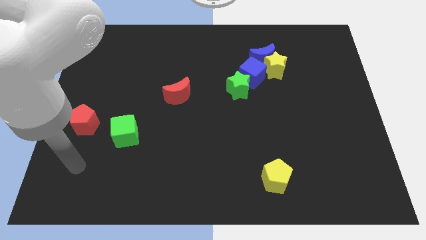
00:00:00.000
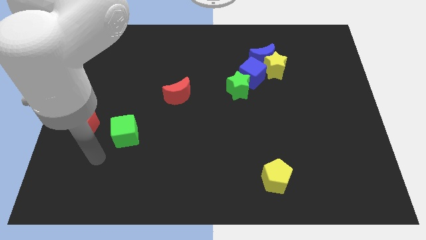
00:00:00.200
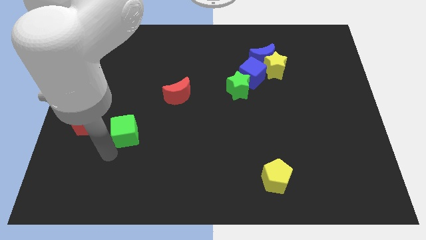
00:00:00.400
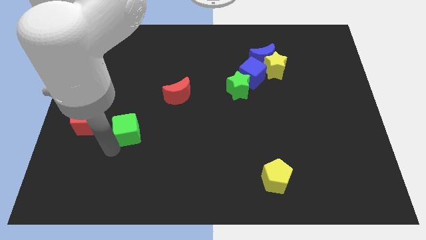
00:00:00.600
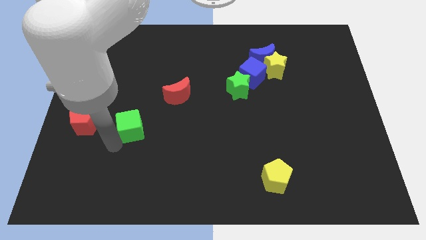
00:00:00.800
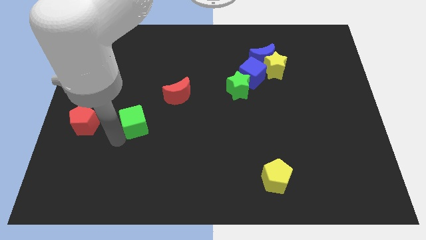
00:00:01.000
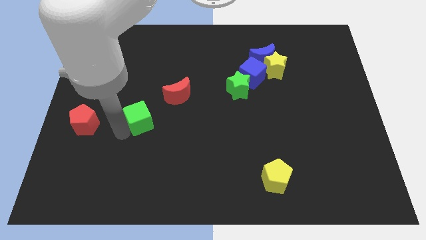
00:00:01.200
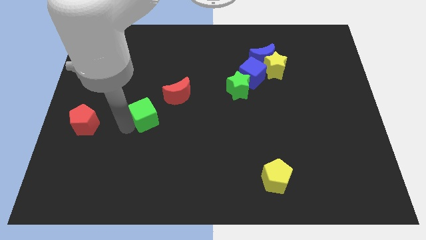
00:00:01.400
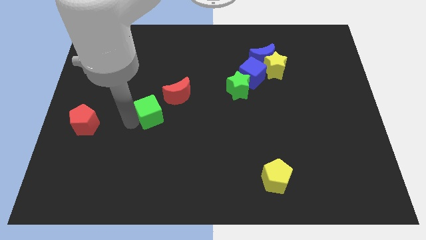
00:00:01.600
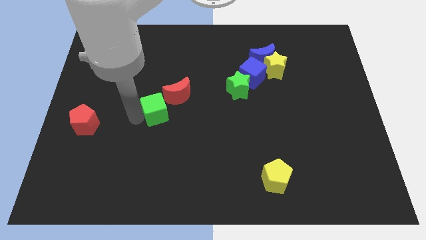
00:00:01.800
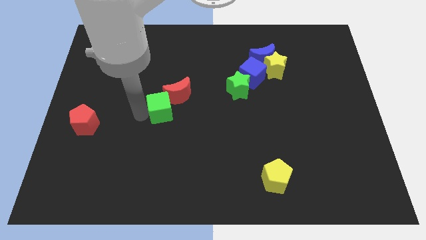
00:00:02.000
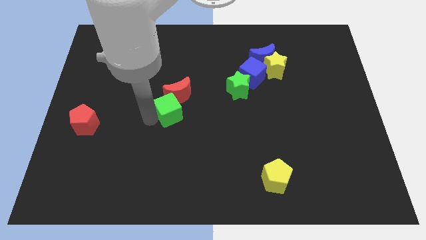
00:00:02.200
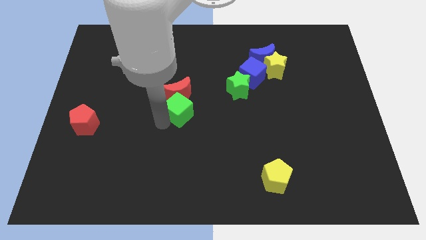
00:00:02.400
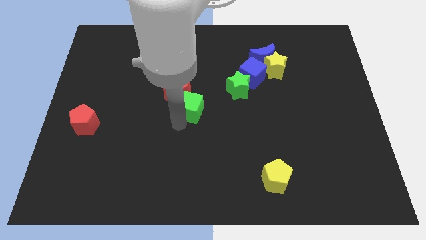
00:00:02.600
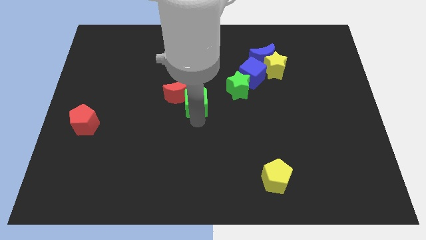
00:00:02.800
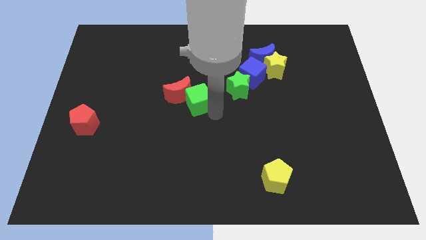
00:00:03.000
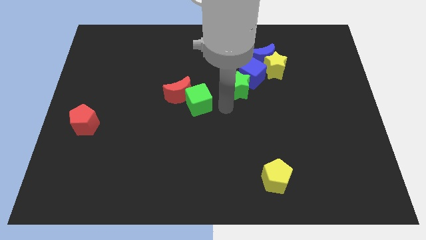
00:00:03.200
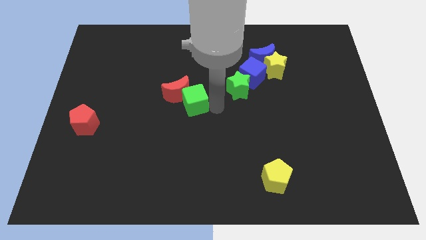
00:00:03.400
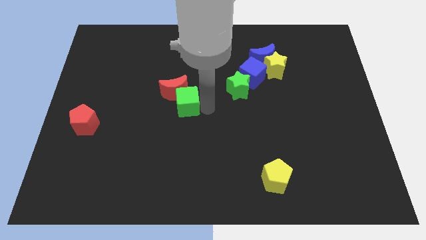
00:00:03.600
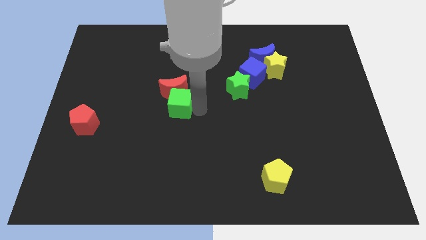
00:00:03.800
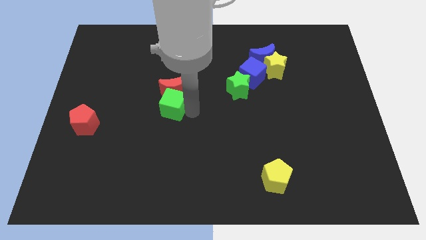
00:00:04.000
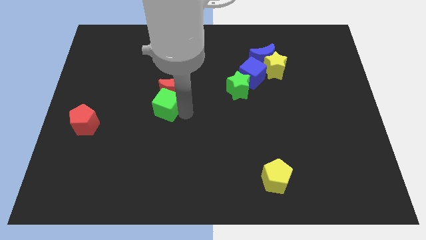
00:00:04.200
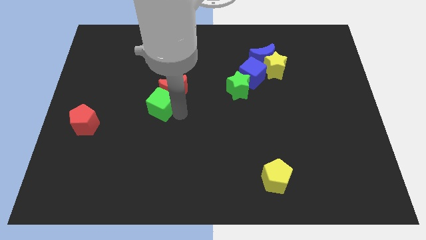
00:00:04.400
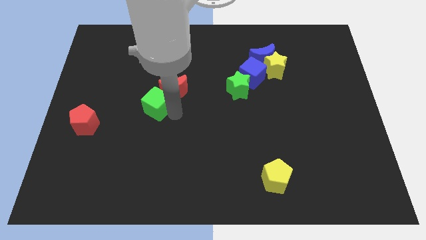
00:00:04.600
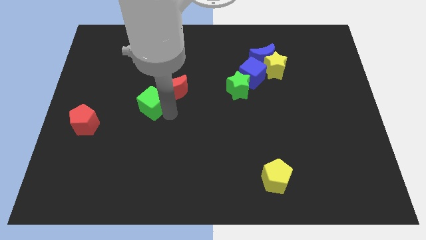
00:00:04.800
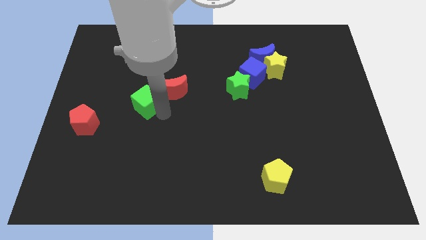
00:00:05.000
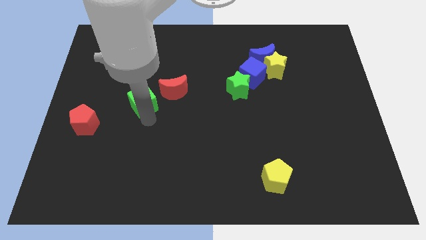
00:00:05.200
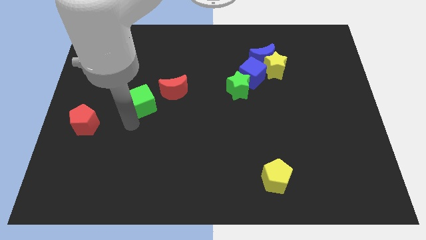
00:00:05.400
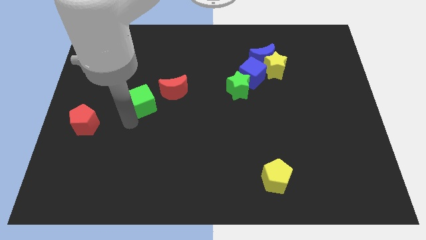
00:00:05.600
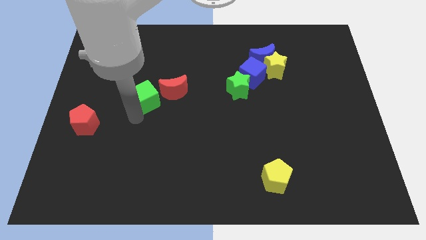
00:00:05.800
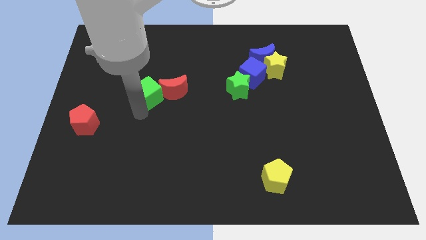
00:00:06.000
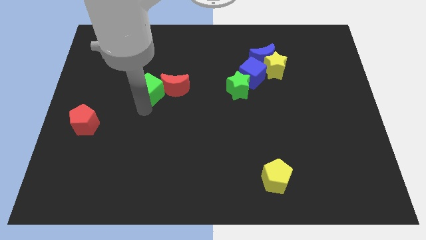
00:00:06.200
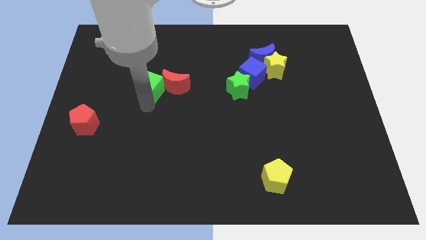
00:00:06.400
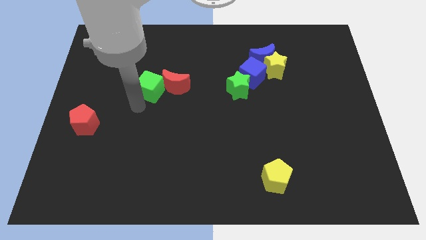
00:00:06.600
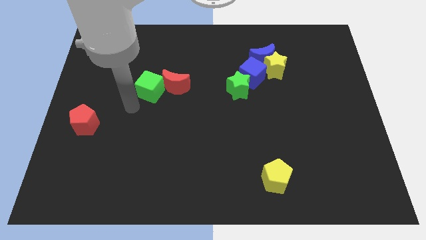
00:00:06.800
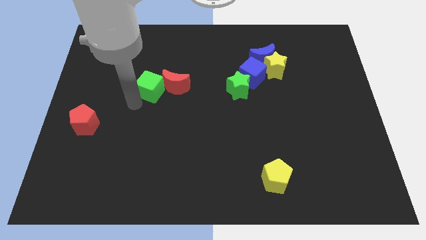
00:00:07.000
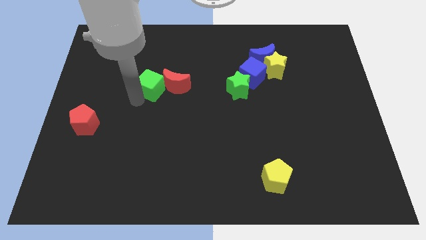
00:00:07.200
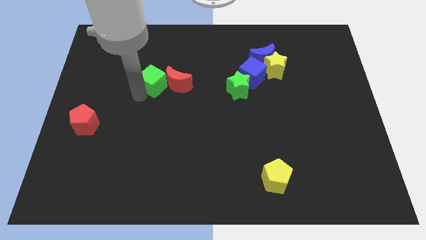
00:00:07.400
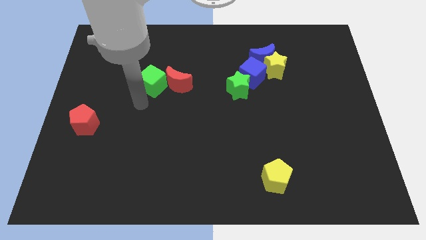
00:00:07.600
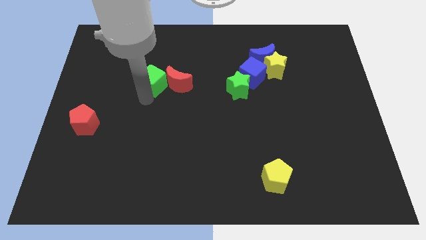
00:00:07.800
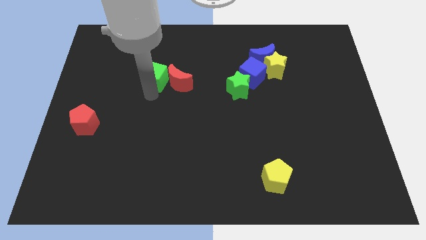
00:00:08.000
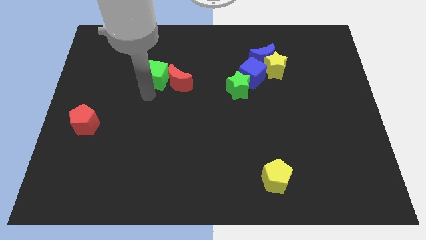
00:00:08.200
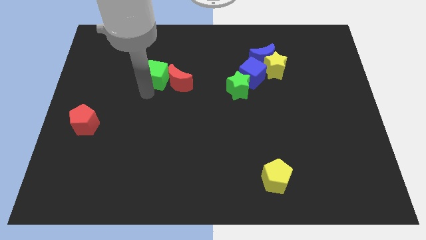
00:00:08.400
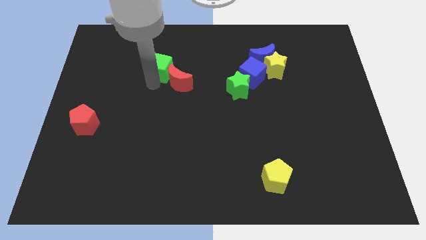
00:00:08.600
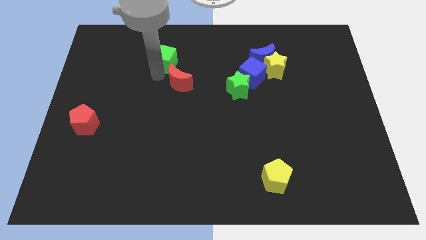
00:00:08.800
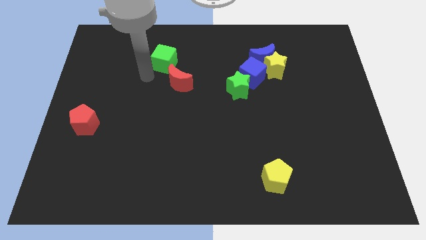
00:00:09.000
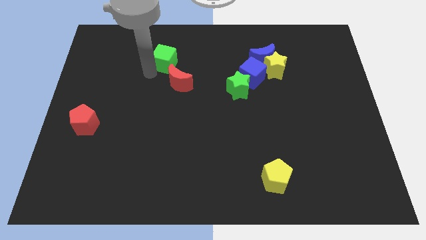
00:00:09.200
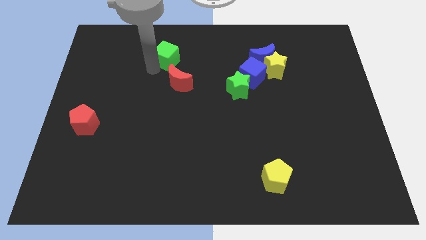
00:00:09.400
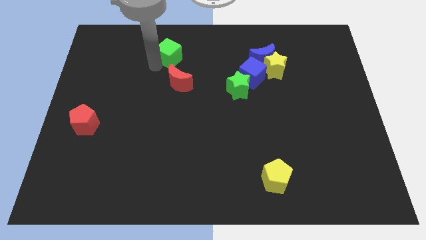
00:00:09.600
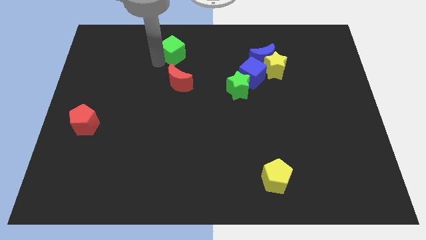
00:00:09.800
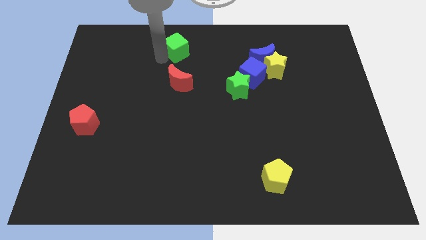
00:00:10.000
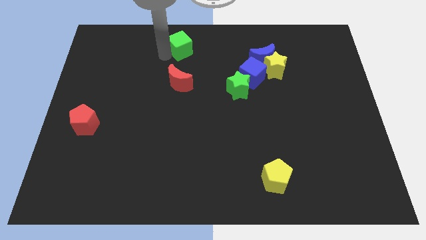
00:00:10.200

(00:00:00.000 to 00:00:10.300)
move the green cube to the top

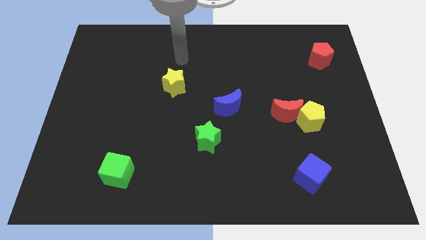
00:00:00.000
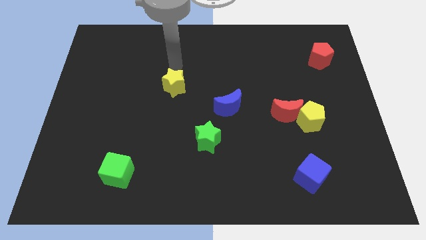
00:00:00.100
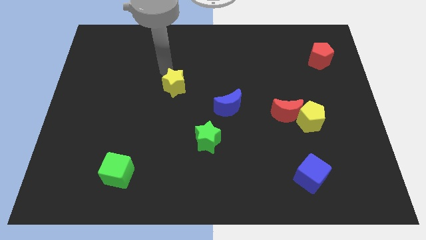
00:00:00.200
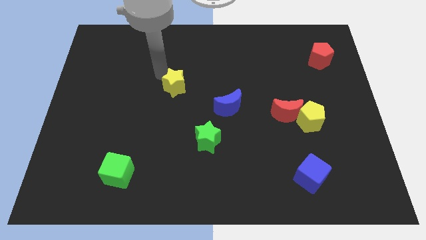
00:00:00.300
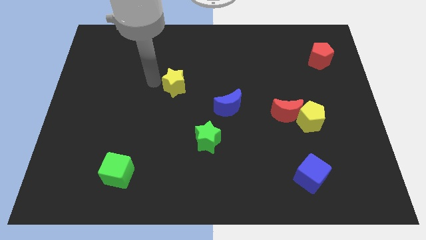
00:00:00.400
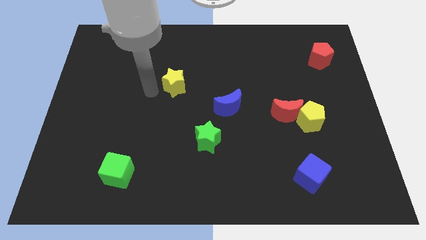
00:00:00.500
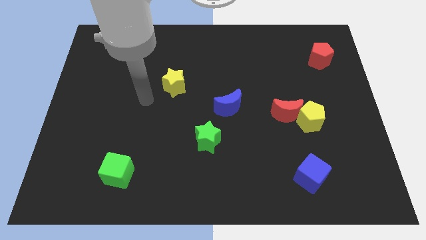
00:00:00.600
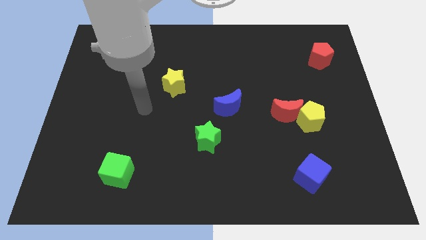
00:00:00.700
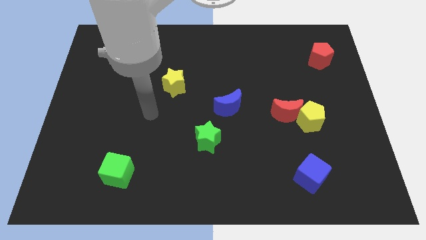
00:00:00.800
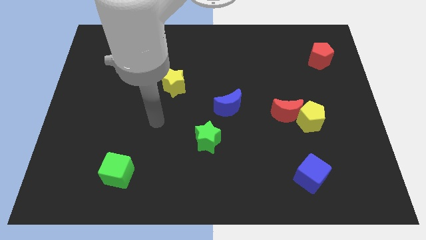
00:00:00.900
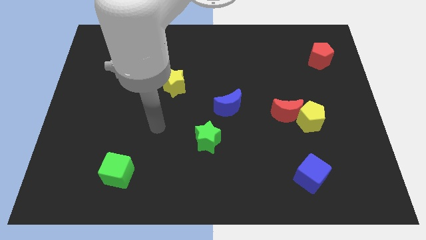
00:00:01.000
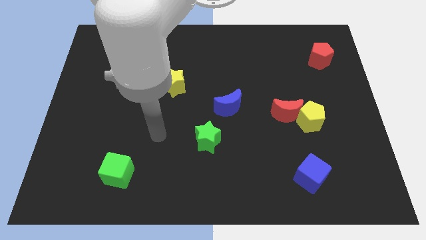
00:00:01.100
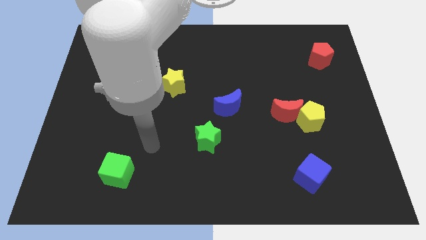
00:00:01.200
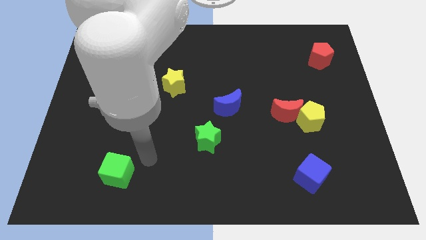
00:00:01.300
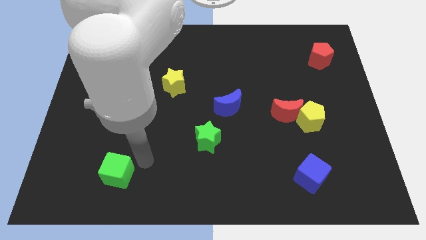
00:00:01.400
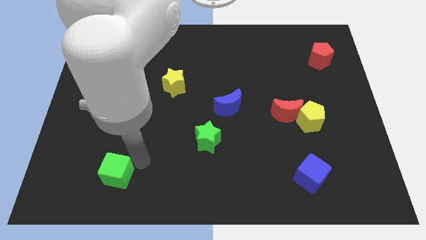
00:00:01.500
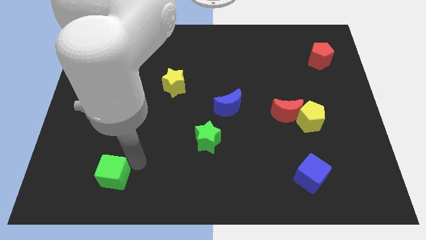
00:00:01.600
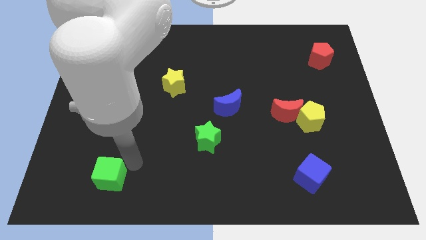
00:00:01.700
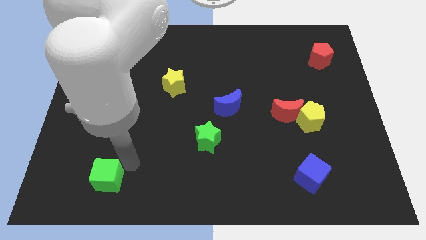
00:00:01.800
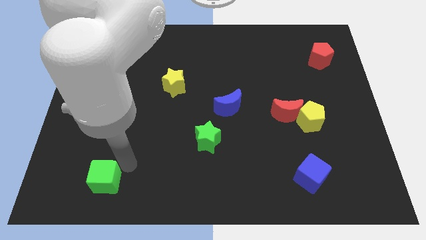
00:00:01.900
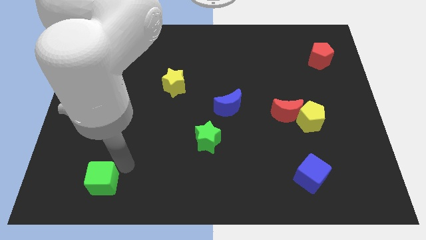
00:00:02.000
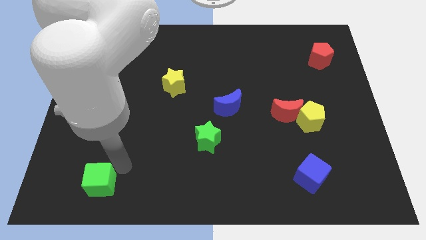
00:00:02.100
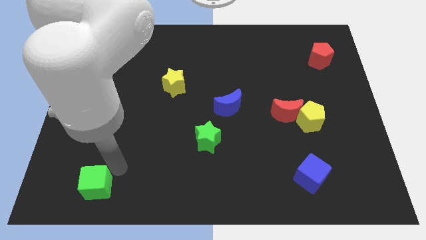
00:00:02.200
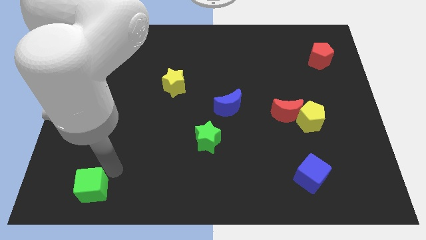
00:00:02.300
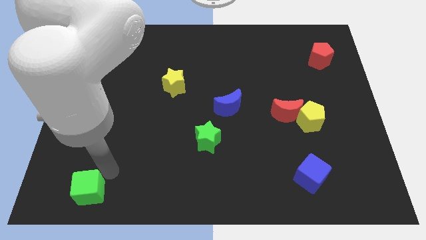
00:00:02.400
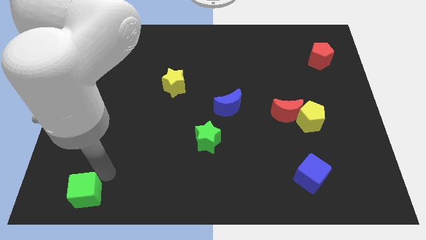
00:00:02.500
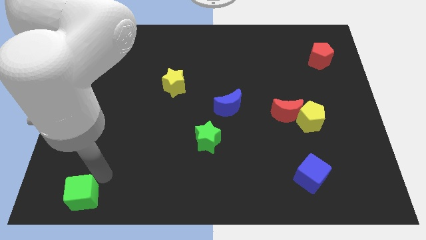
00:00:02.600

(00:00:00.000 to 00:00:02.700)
move the green cube to the bottom left
